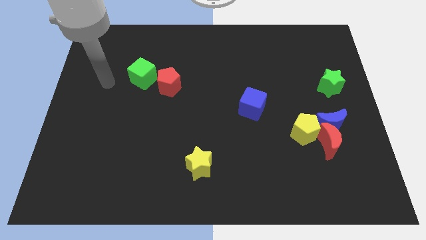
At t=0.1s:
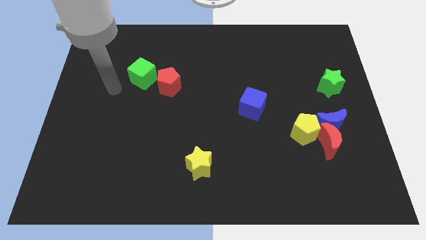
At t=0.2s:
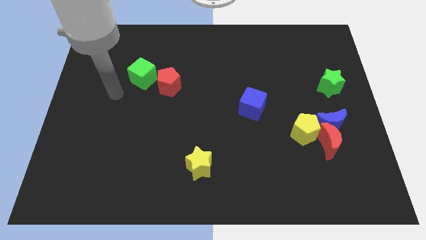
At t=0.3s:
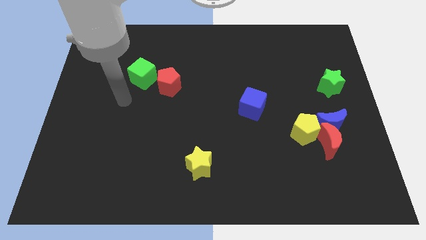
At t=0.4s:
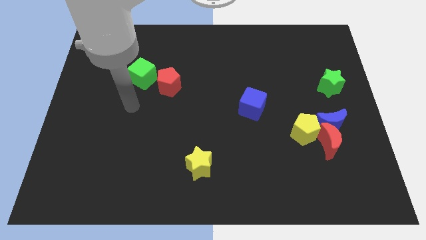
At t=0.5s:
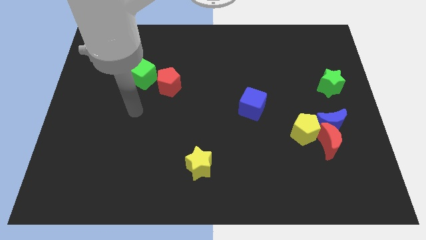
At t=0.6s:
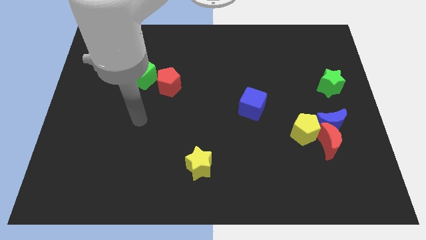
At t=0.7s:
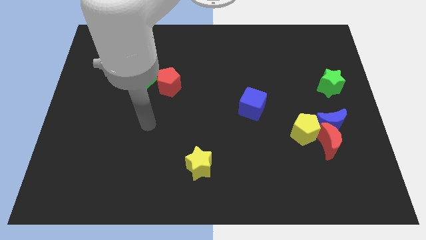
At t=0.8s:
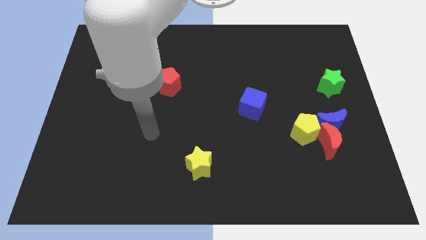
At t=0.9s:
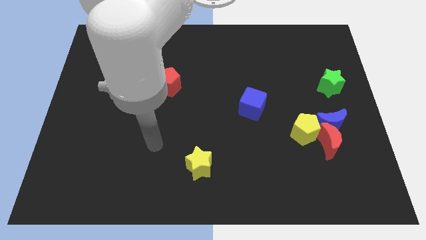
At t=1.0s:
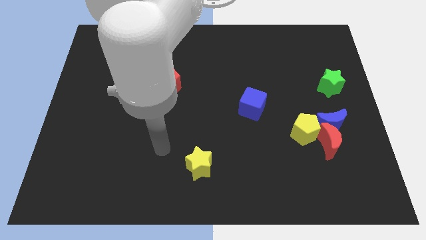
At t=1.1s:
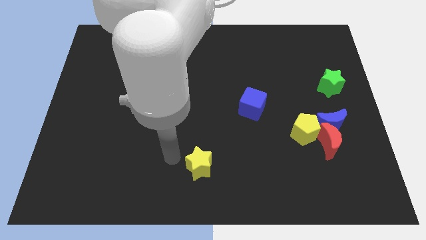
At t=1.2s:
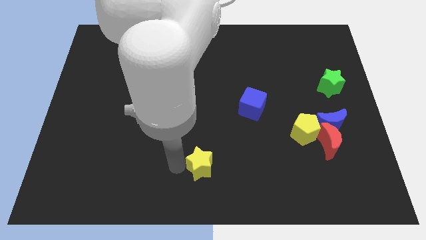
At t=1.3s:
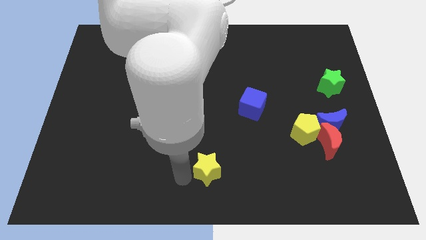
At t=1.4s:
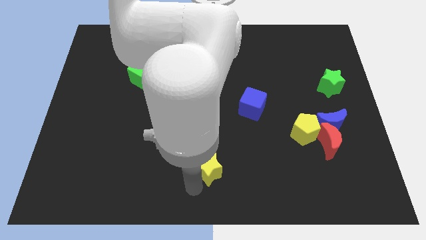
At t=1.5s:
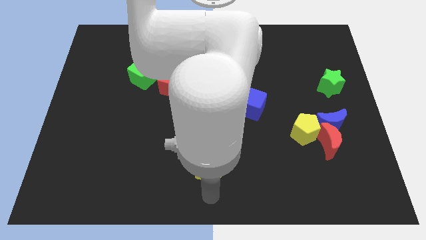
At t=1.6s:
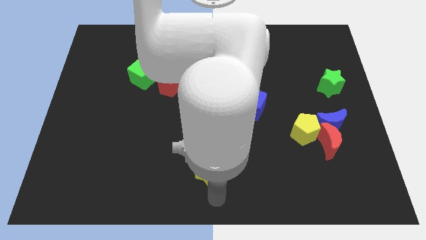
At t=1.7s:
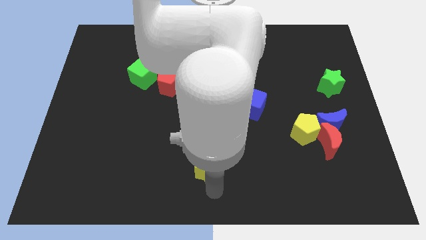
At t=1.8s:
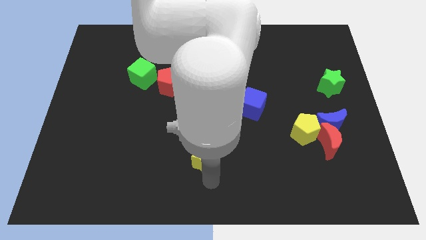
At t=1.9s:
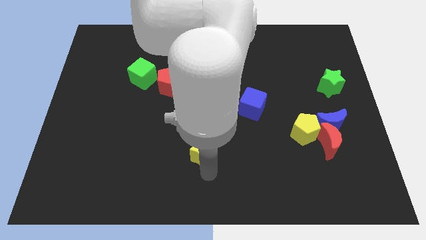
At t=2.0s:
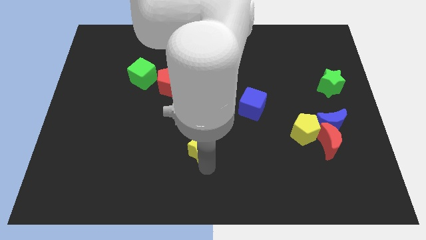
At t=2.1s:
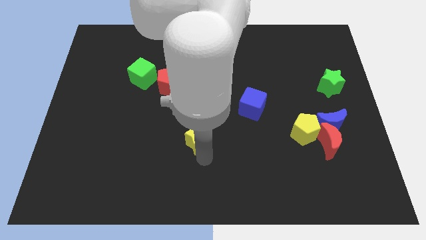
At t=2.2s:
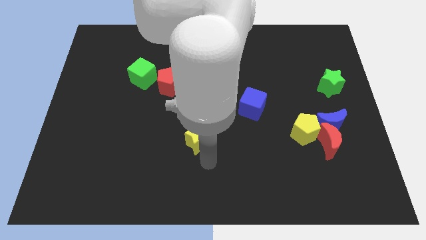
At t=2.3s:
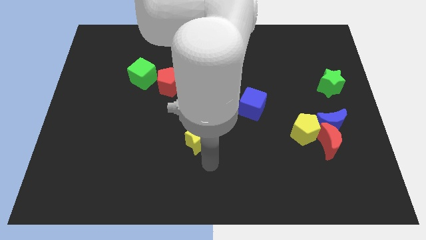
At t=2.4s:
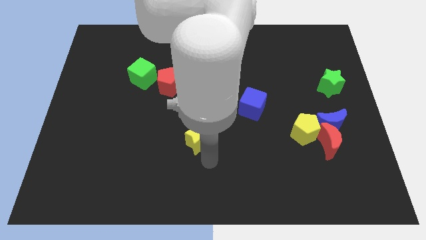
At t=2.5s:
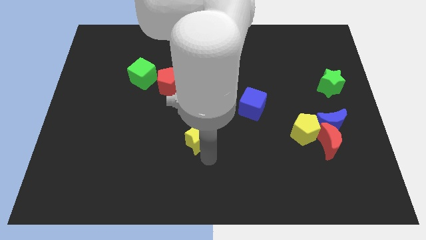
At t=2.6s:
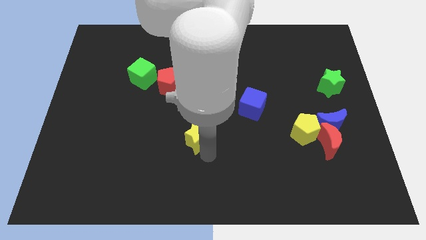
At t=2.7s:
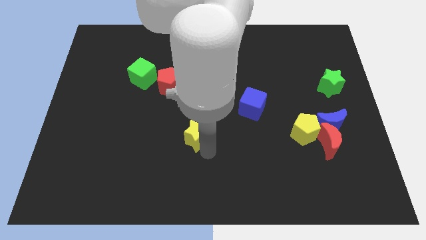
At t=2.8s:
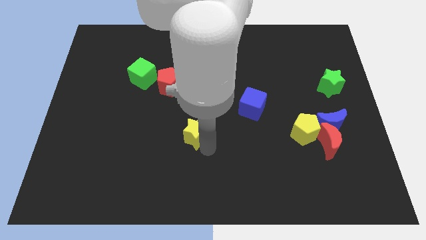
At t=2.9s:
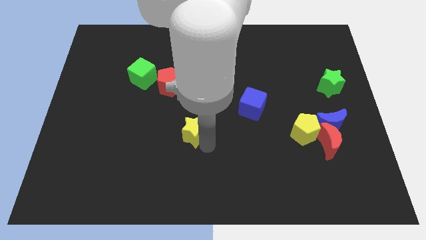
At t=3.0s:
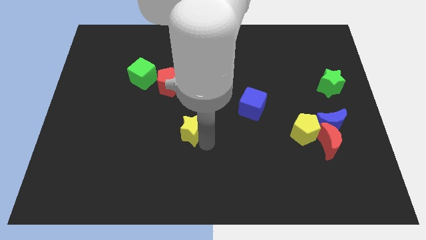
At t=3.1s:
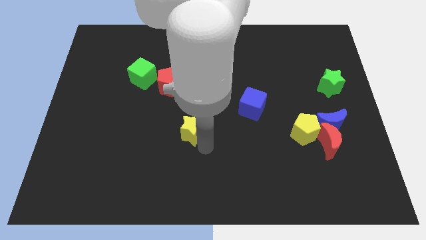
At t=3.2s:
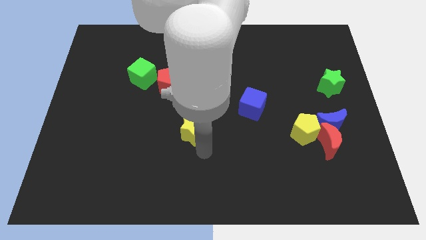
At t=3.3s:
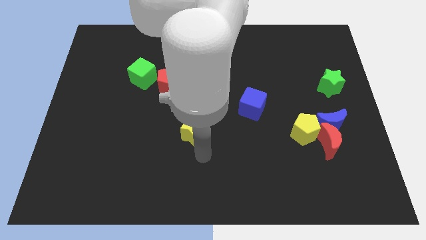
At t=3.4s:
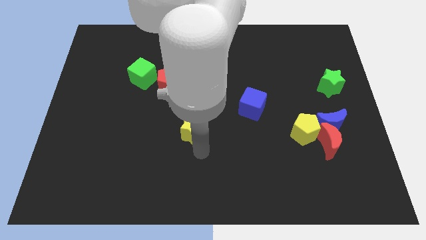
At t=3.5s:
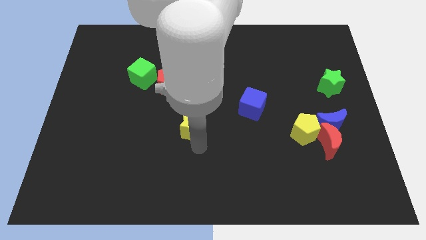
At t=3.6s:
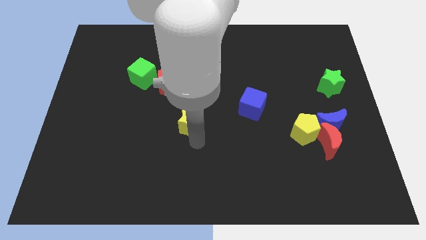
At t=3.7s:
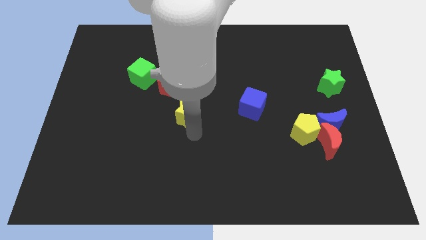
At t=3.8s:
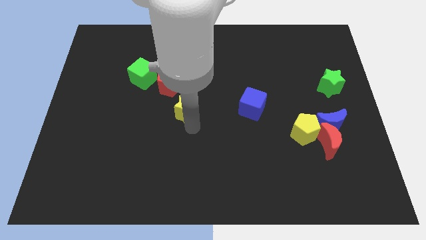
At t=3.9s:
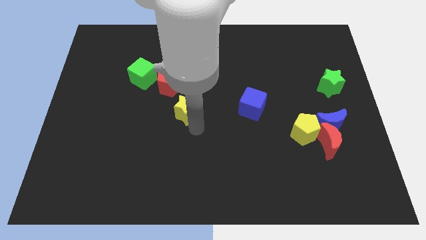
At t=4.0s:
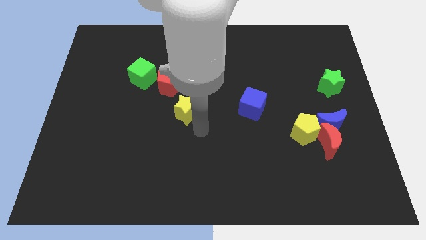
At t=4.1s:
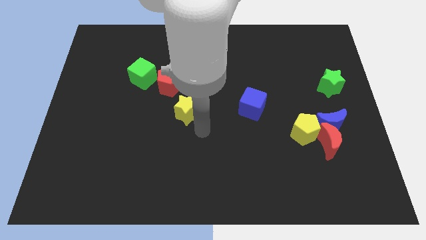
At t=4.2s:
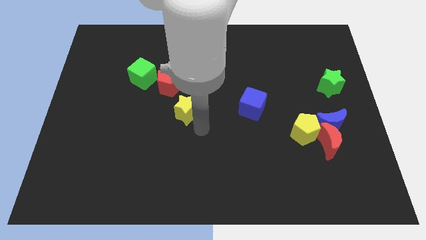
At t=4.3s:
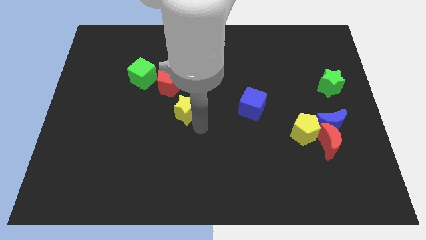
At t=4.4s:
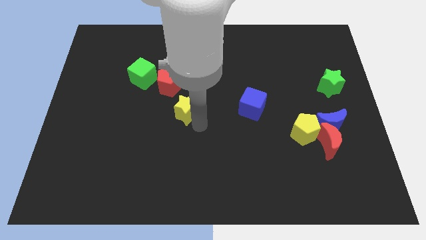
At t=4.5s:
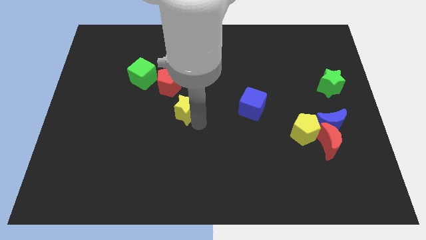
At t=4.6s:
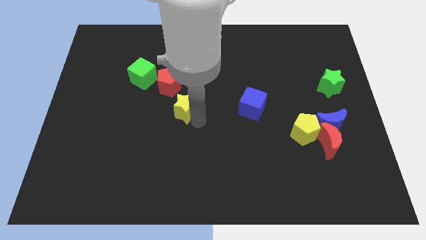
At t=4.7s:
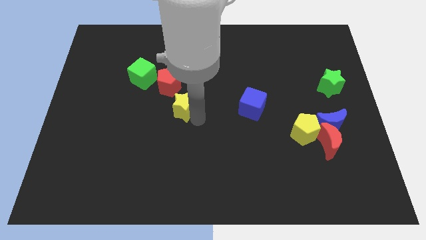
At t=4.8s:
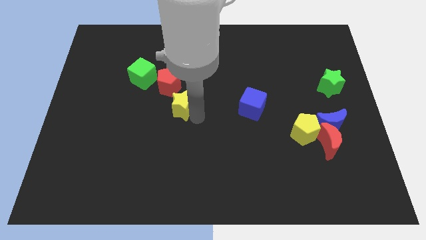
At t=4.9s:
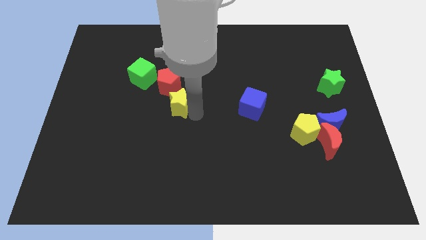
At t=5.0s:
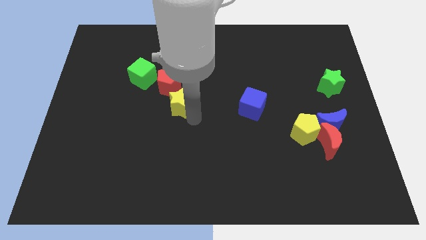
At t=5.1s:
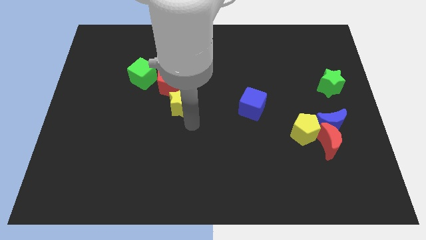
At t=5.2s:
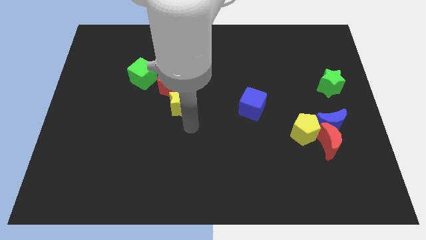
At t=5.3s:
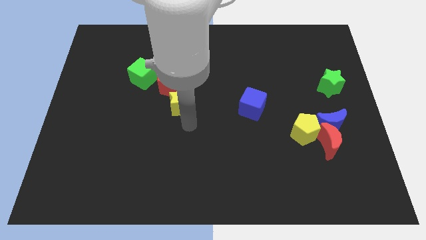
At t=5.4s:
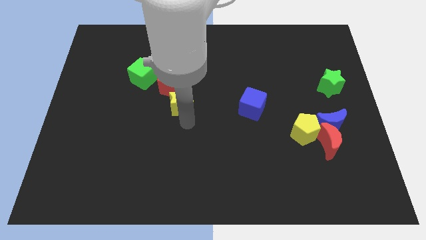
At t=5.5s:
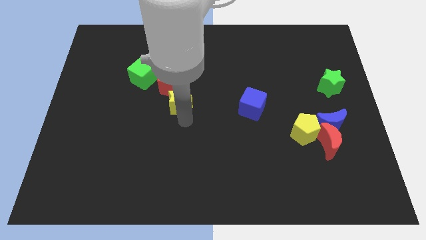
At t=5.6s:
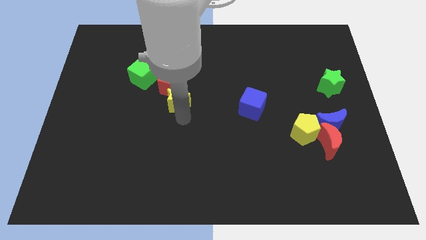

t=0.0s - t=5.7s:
push the yellow star towards the red pentagon
